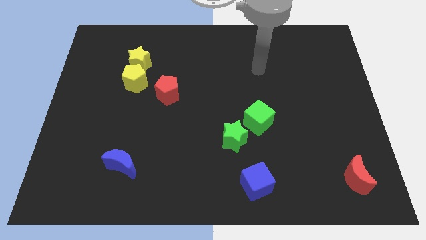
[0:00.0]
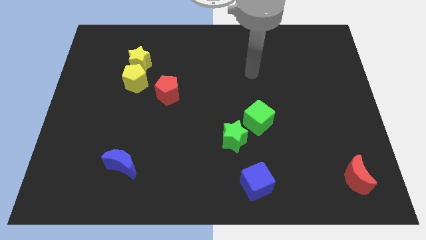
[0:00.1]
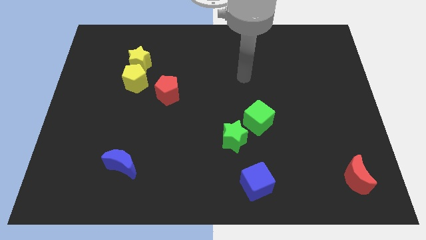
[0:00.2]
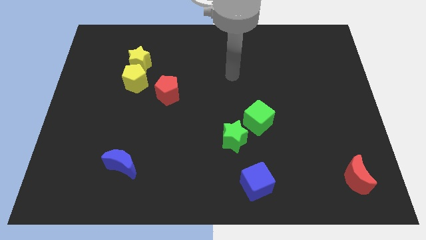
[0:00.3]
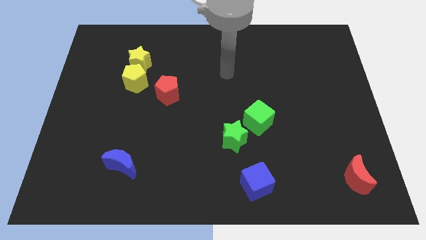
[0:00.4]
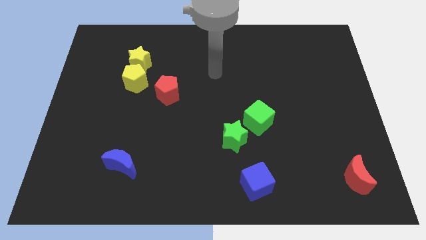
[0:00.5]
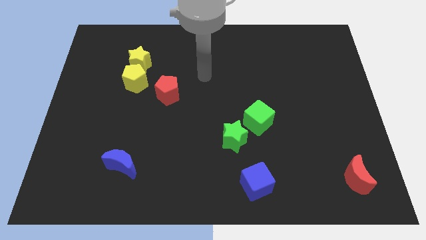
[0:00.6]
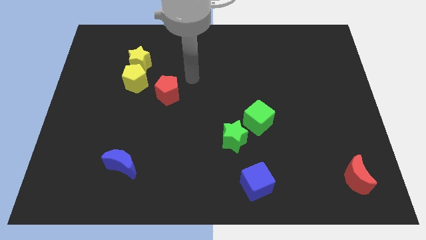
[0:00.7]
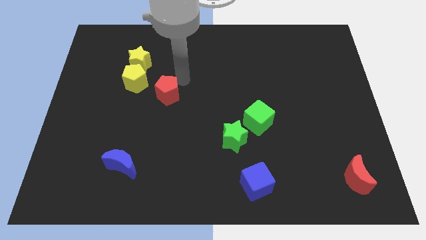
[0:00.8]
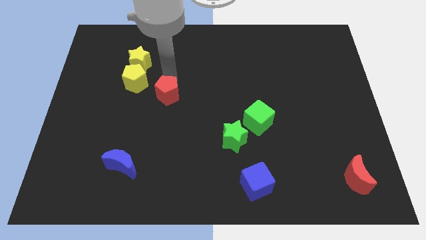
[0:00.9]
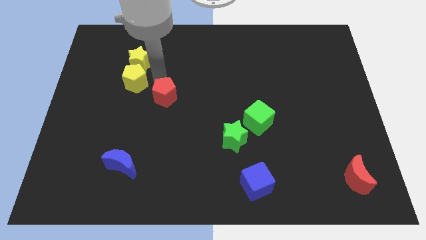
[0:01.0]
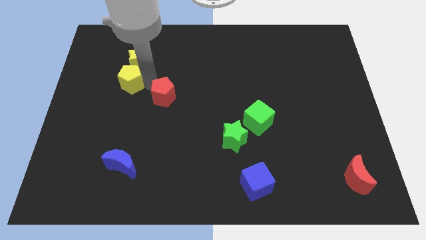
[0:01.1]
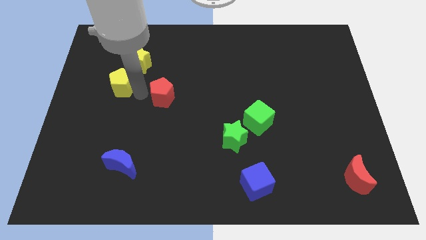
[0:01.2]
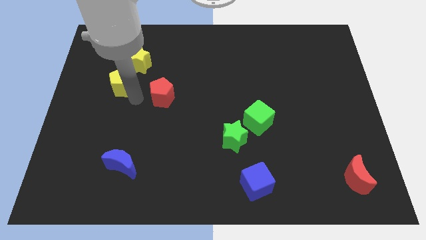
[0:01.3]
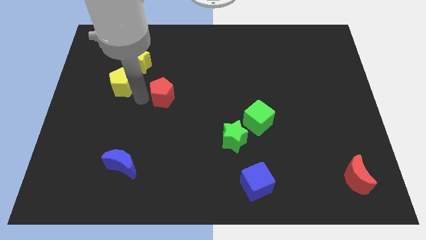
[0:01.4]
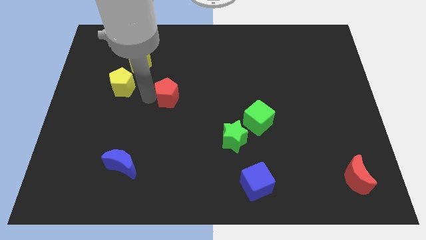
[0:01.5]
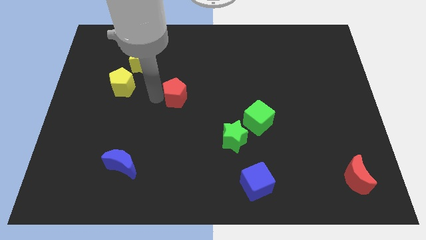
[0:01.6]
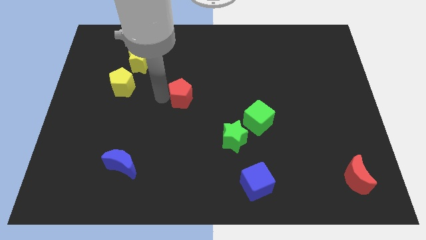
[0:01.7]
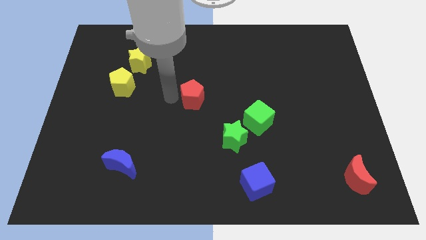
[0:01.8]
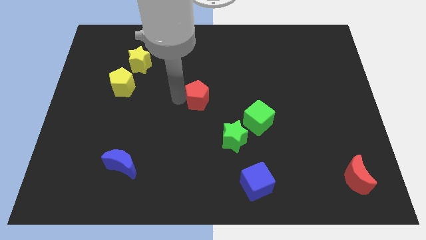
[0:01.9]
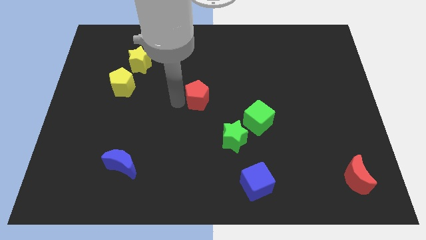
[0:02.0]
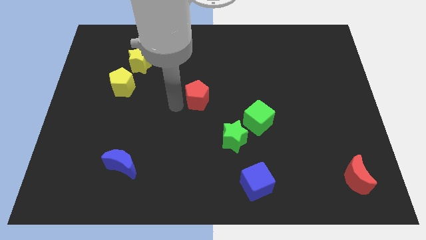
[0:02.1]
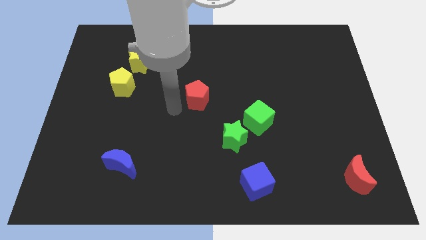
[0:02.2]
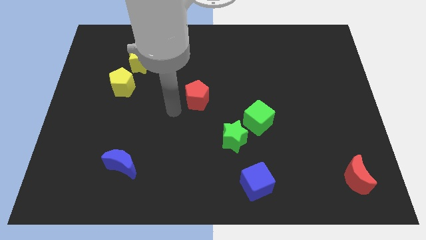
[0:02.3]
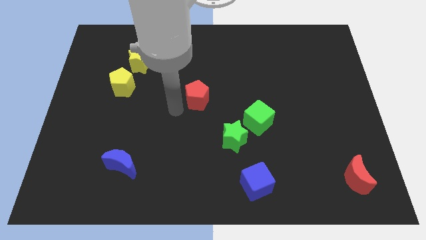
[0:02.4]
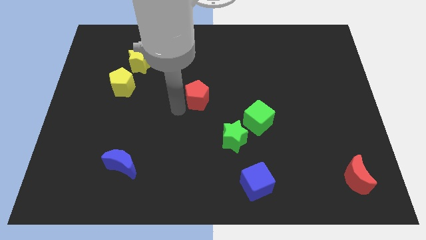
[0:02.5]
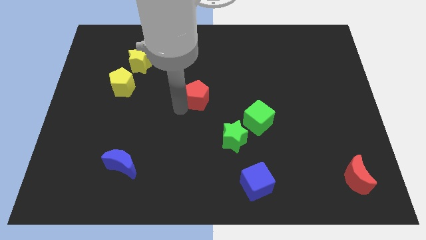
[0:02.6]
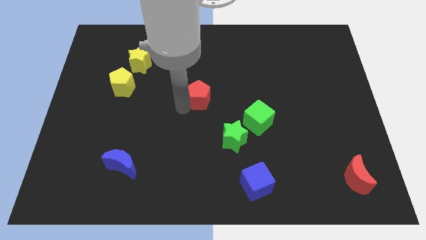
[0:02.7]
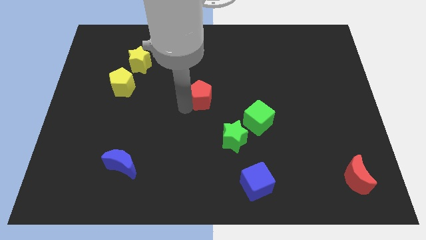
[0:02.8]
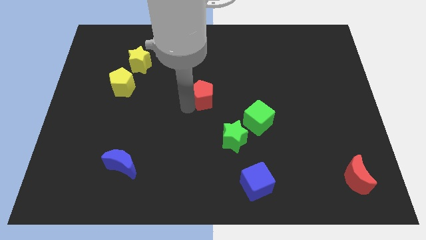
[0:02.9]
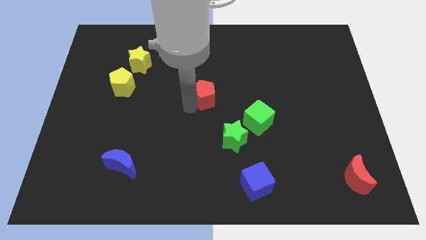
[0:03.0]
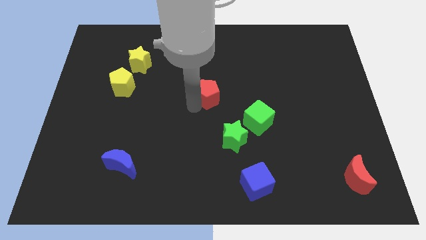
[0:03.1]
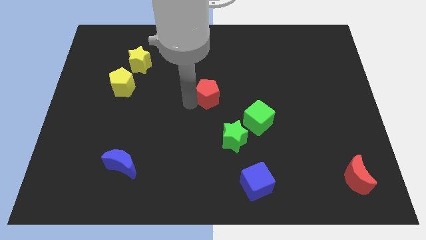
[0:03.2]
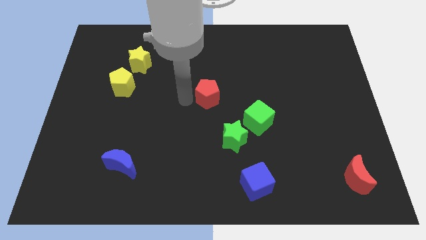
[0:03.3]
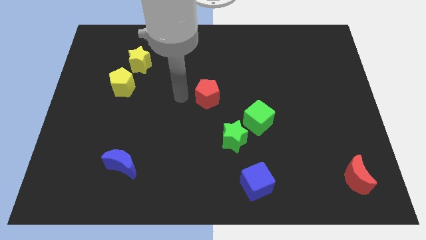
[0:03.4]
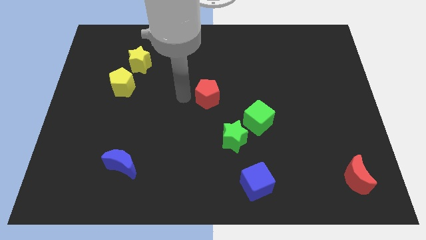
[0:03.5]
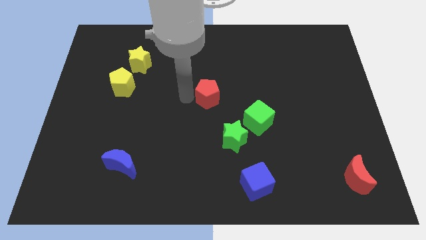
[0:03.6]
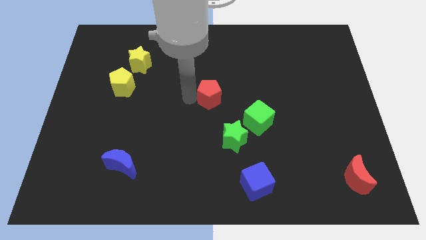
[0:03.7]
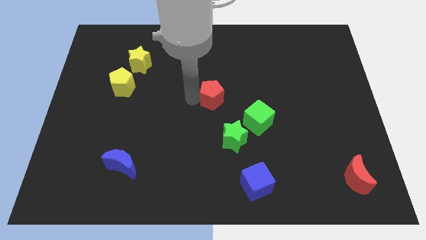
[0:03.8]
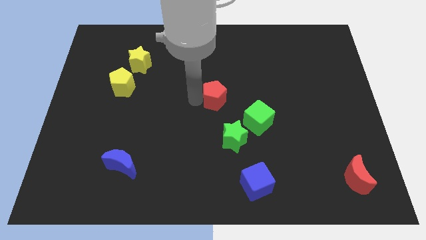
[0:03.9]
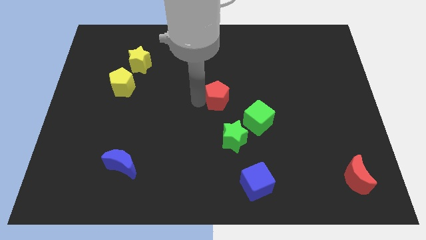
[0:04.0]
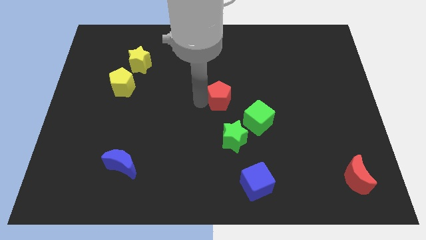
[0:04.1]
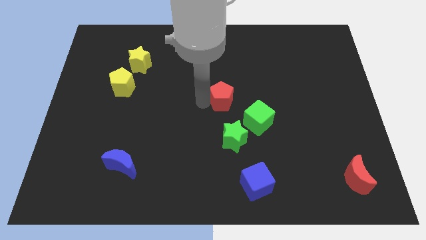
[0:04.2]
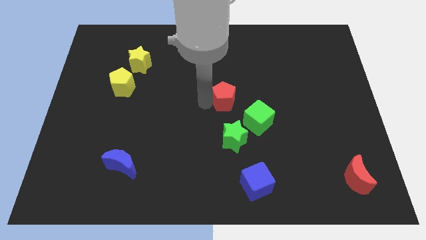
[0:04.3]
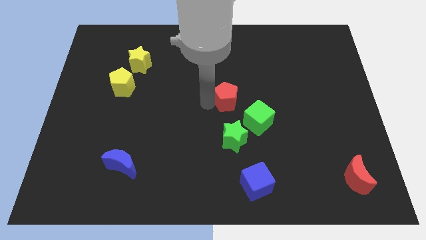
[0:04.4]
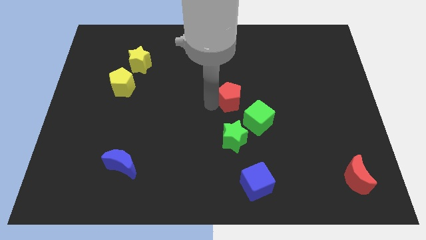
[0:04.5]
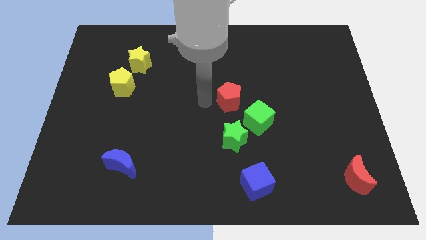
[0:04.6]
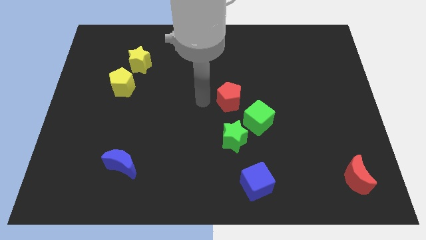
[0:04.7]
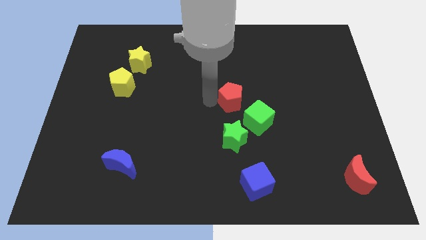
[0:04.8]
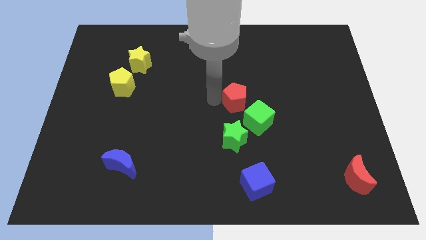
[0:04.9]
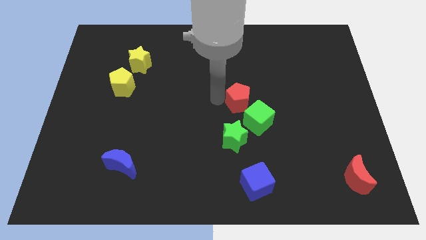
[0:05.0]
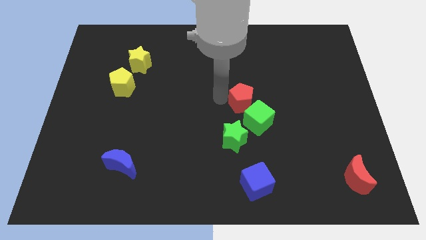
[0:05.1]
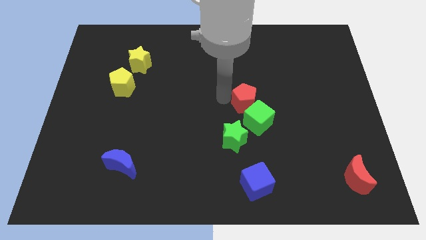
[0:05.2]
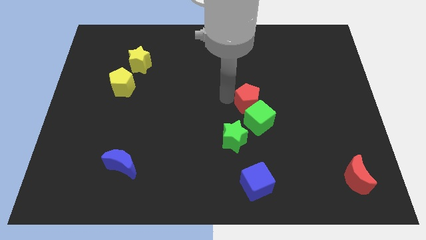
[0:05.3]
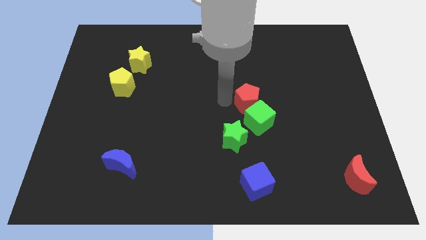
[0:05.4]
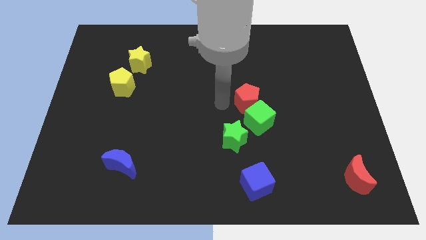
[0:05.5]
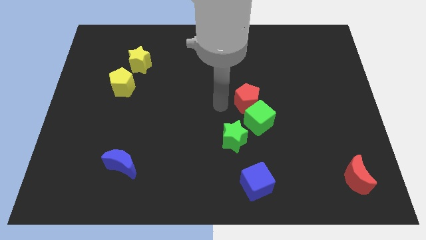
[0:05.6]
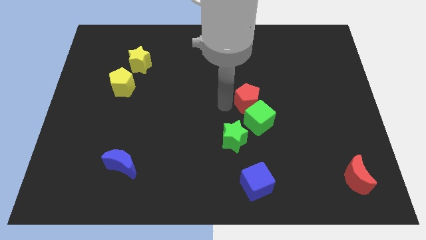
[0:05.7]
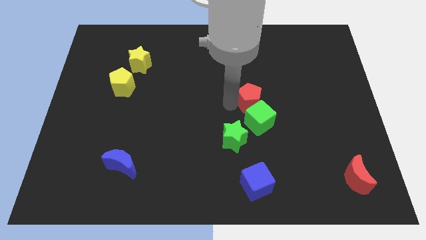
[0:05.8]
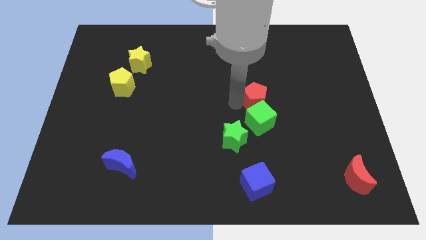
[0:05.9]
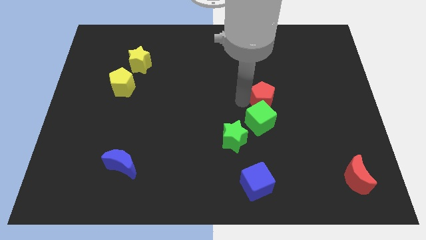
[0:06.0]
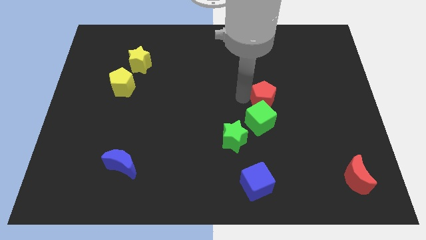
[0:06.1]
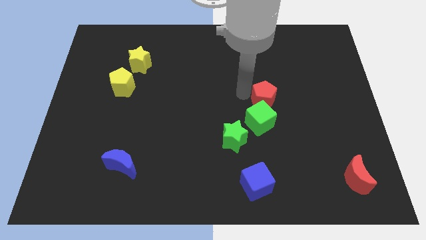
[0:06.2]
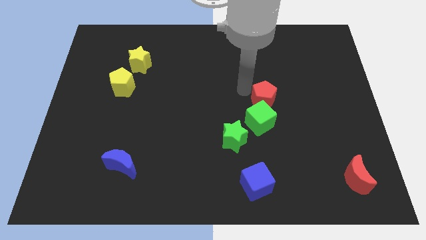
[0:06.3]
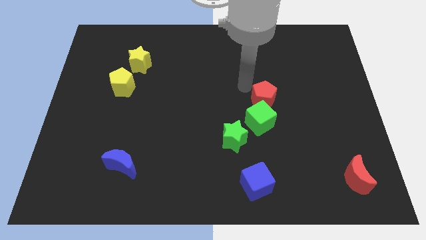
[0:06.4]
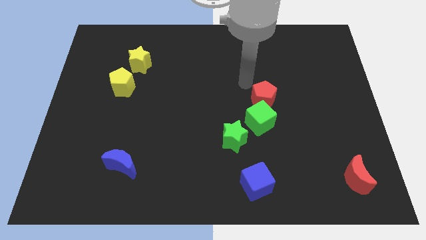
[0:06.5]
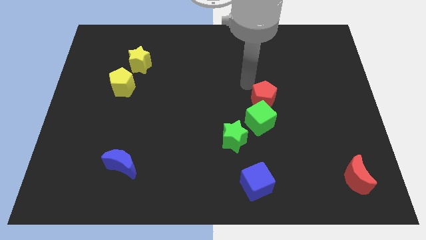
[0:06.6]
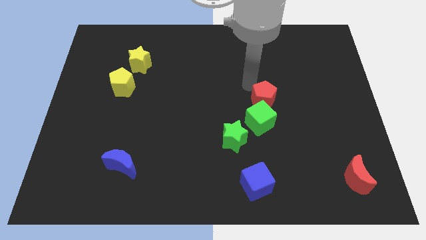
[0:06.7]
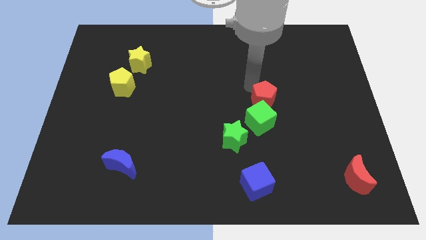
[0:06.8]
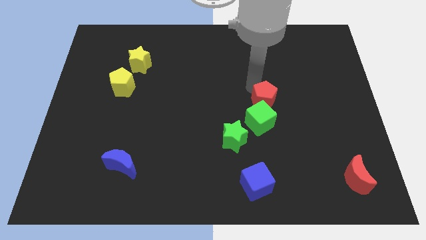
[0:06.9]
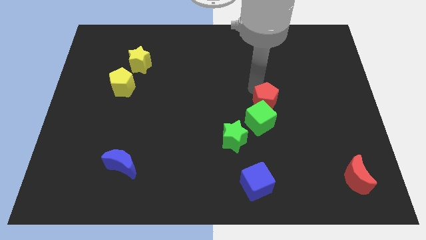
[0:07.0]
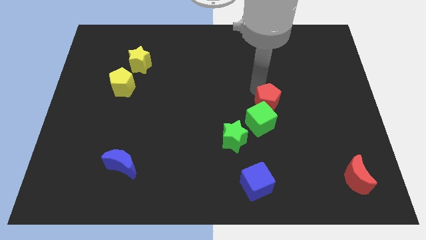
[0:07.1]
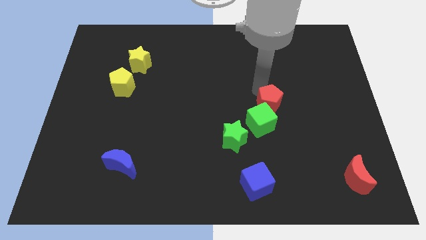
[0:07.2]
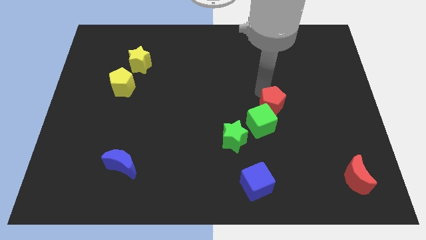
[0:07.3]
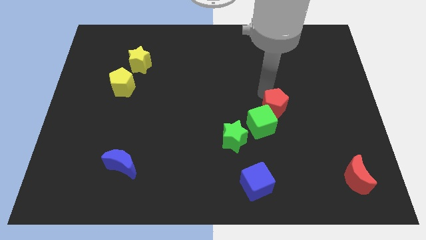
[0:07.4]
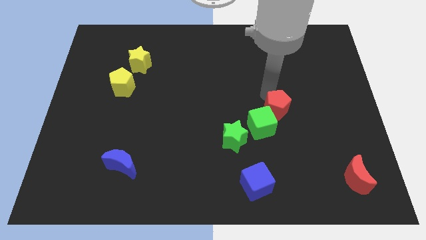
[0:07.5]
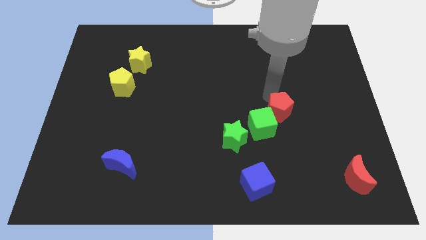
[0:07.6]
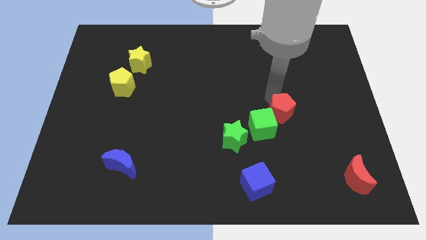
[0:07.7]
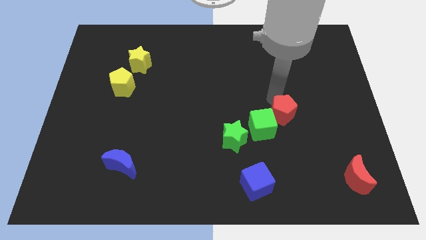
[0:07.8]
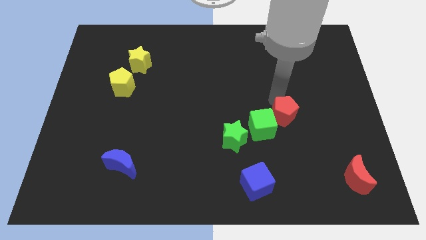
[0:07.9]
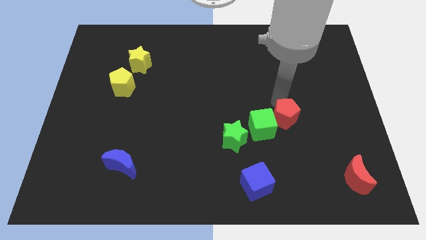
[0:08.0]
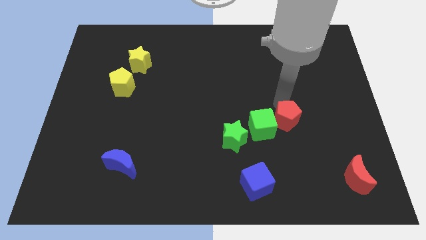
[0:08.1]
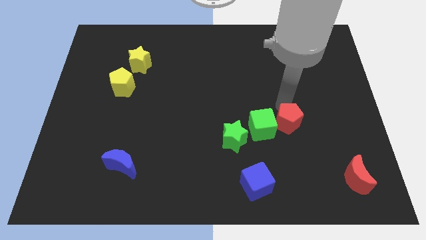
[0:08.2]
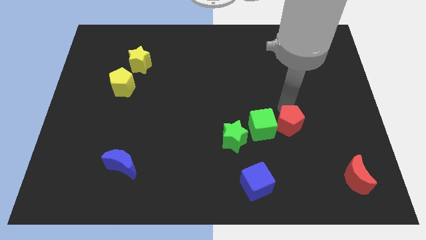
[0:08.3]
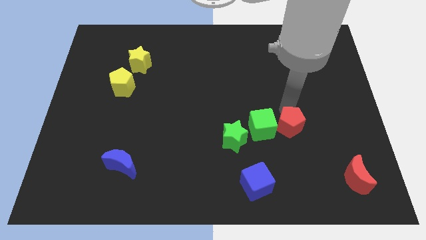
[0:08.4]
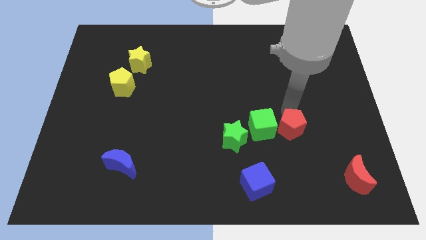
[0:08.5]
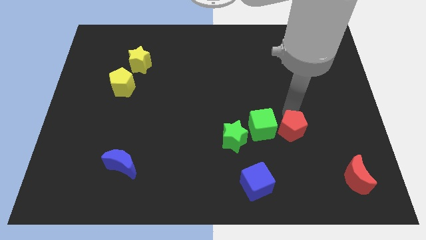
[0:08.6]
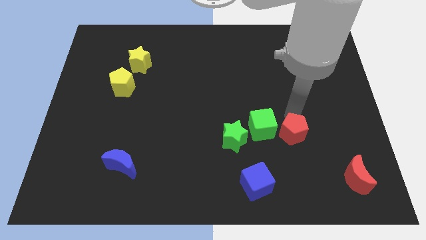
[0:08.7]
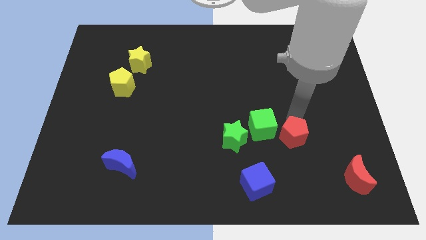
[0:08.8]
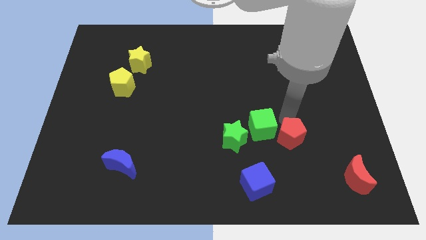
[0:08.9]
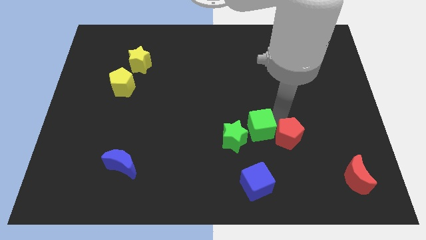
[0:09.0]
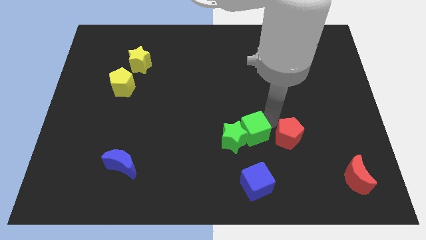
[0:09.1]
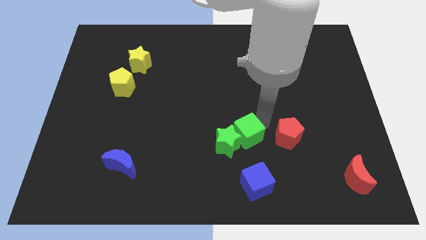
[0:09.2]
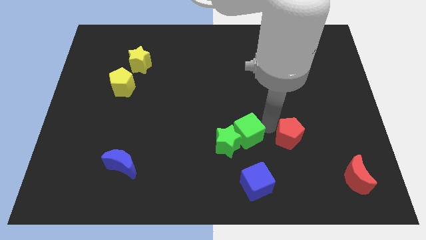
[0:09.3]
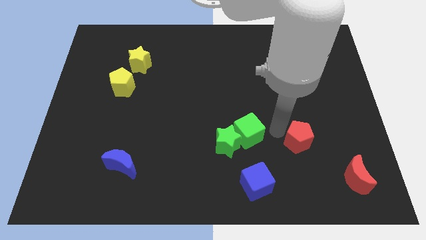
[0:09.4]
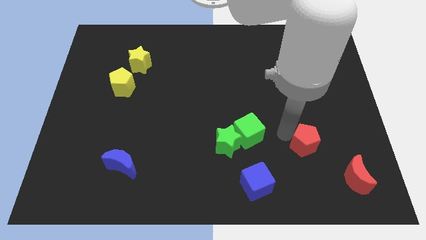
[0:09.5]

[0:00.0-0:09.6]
move the red pentagon diagonally up and to the left of the red moon
